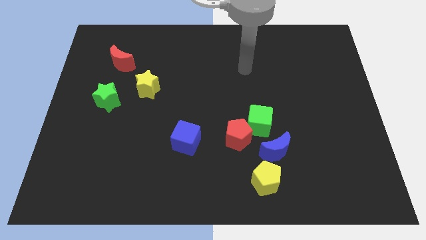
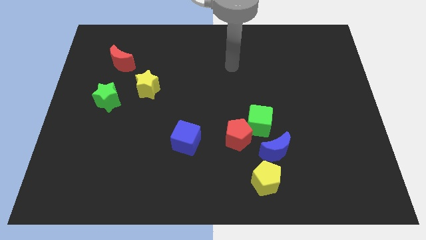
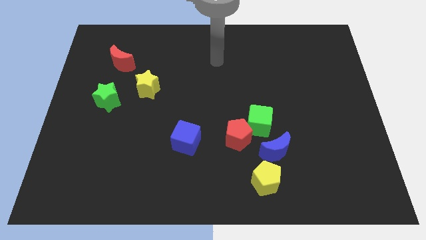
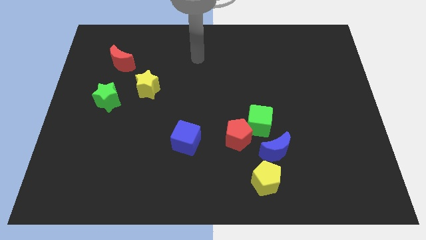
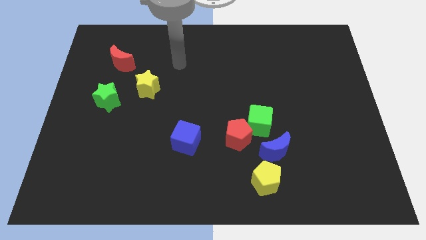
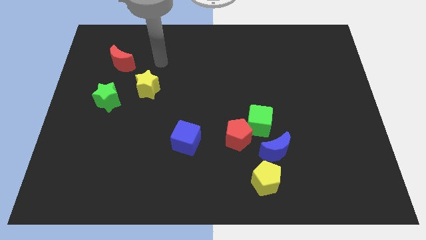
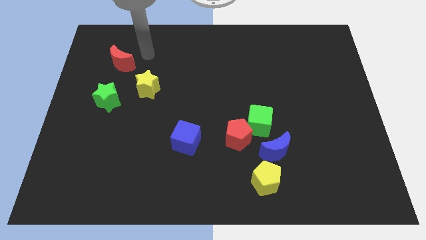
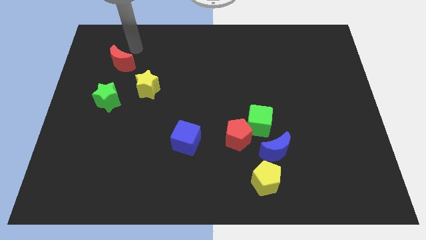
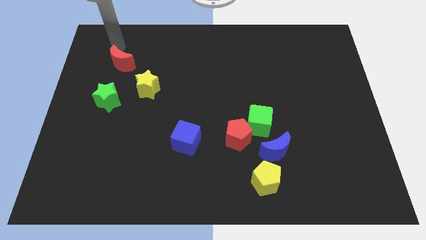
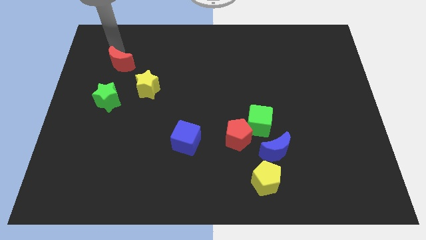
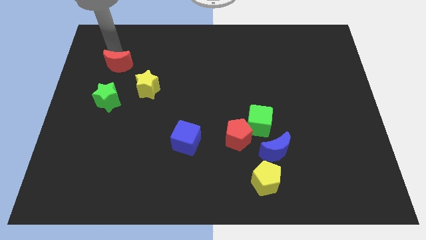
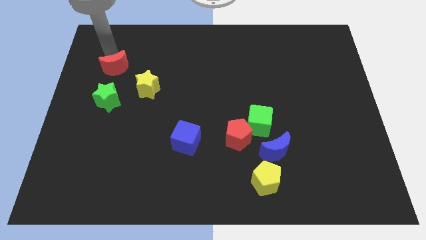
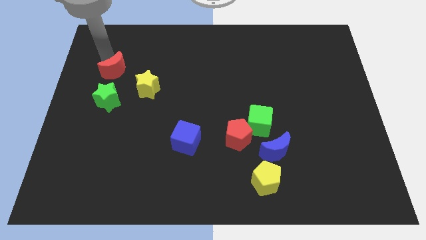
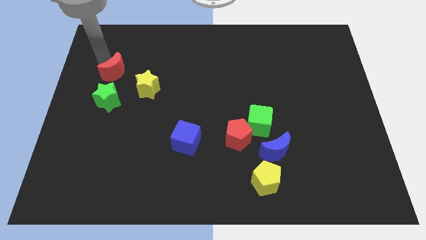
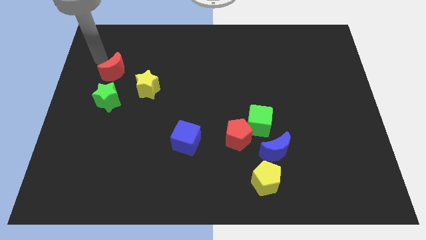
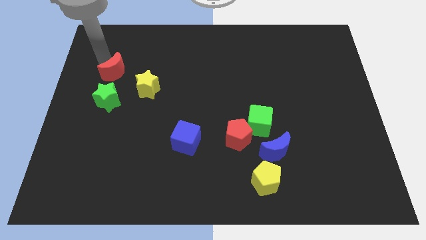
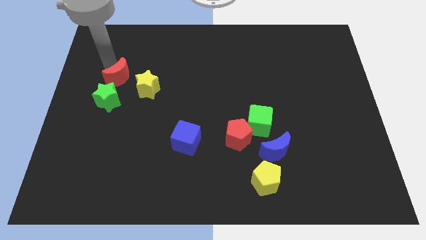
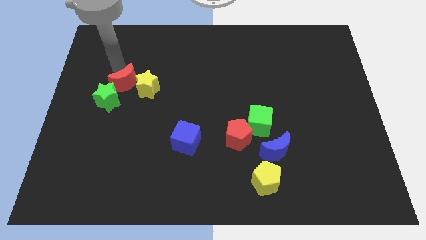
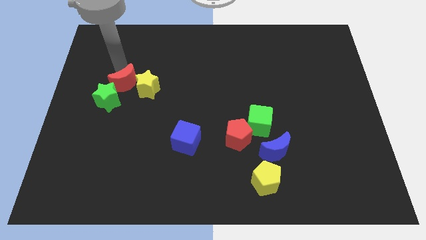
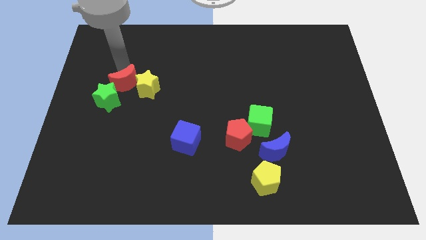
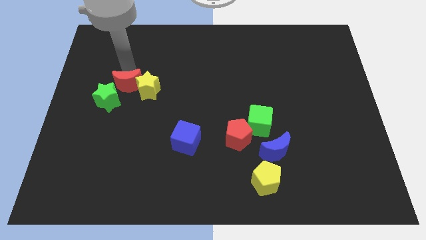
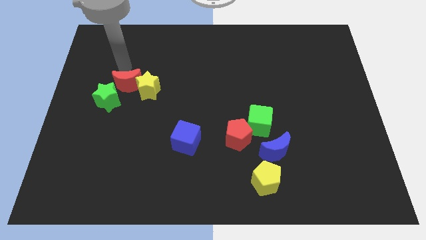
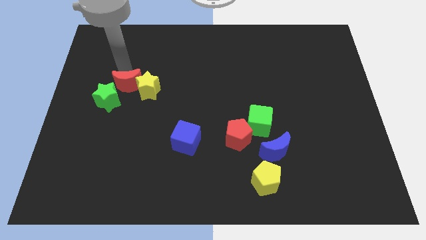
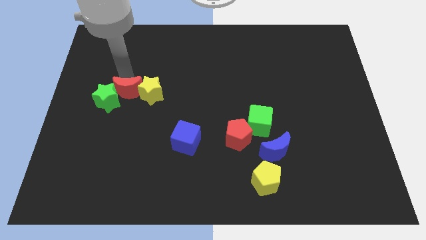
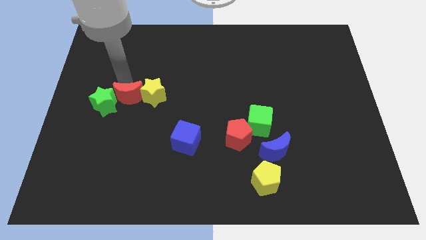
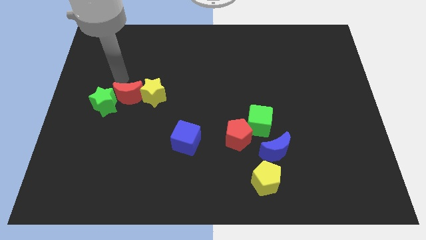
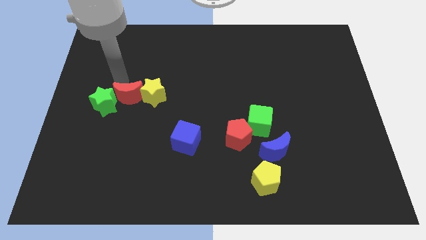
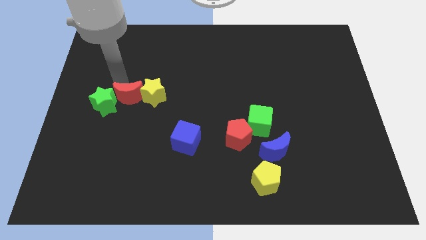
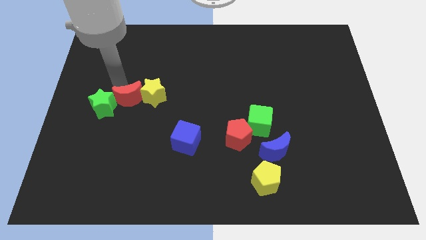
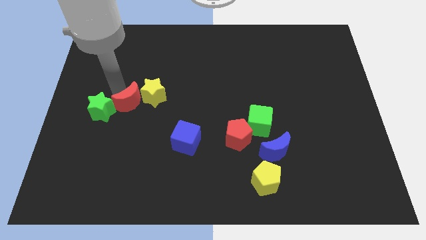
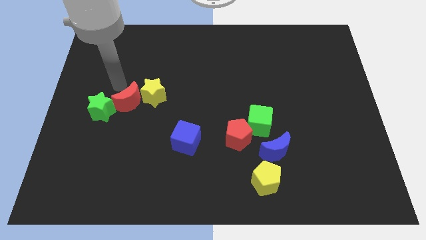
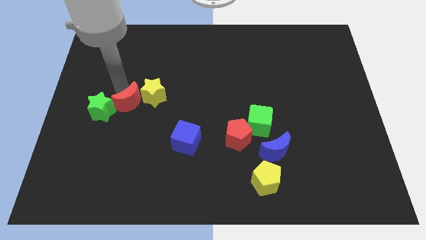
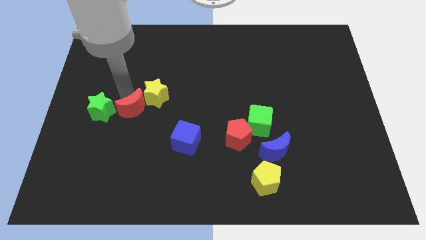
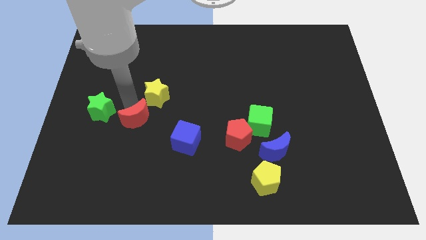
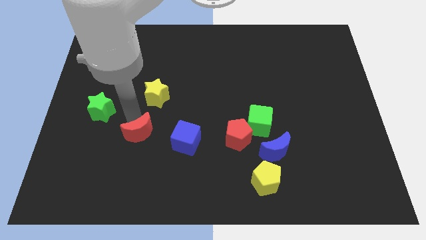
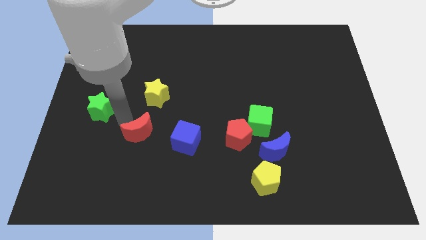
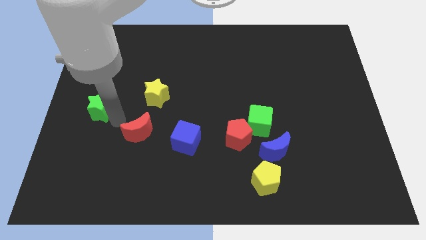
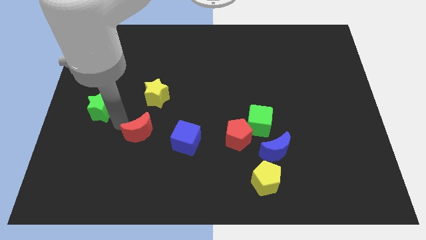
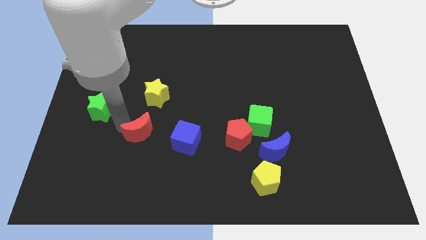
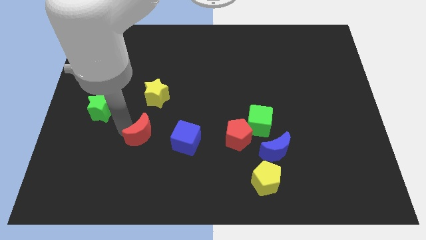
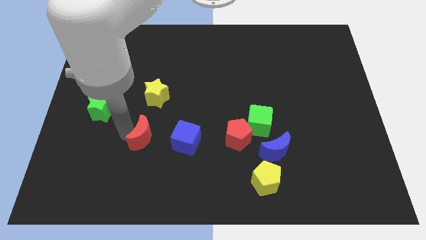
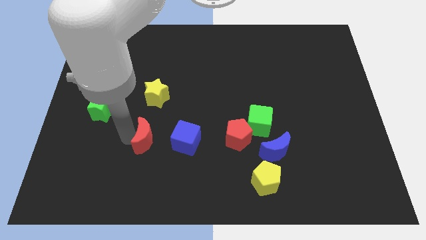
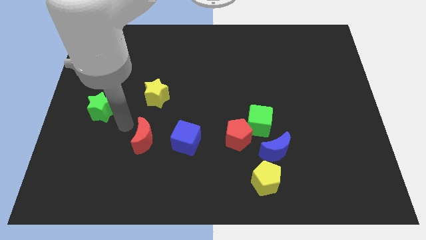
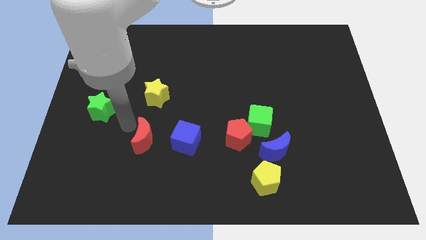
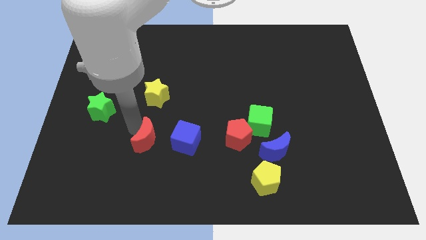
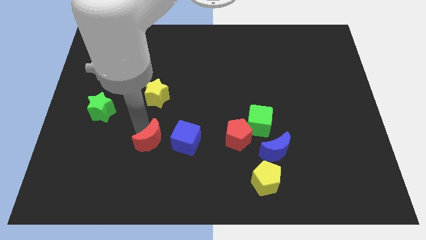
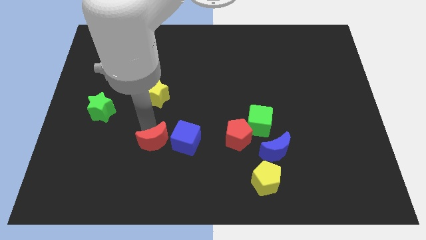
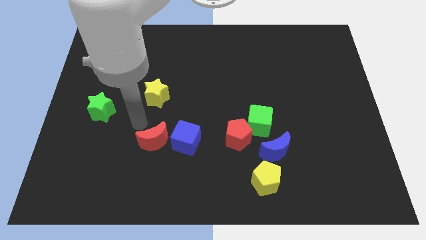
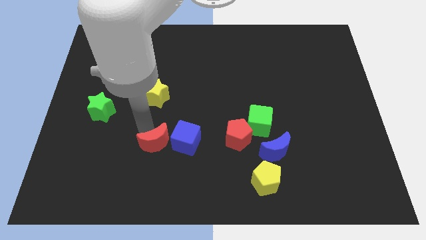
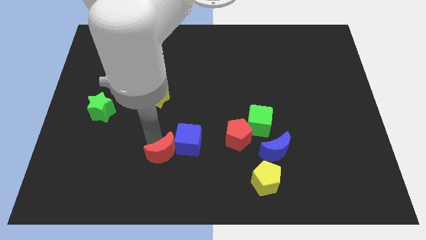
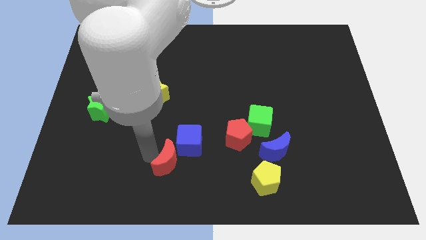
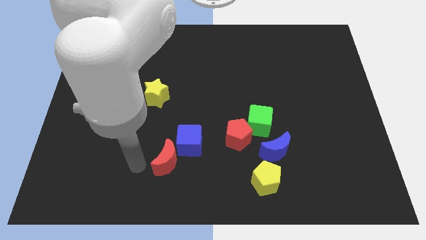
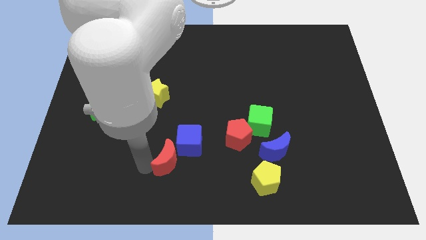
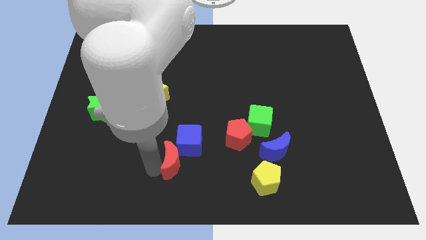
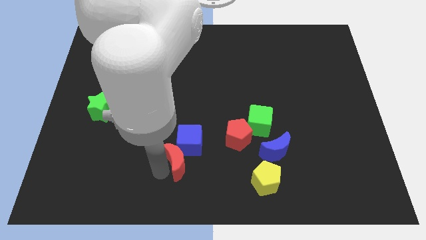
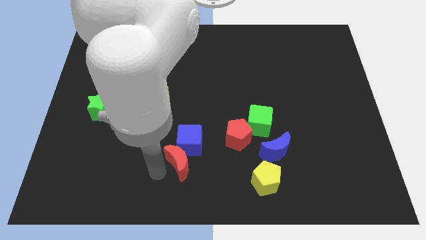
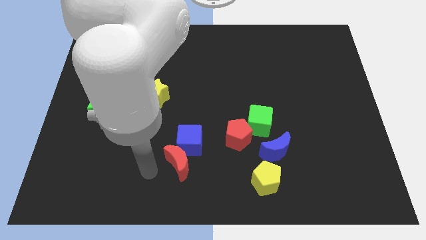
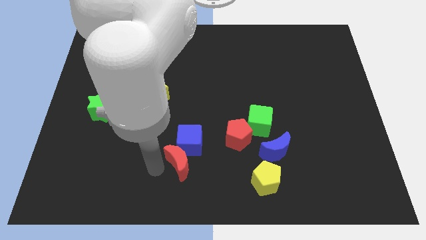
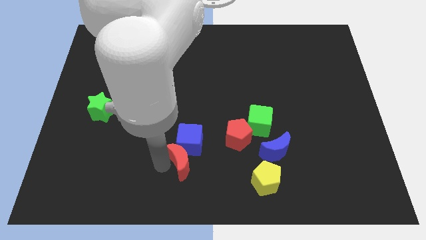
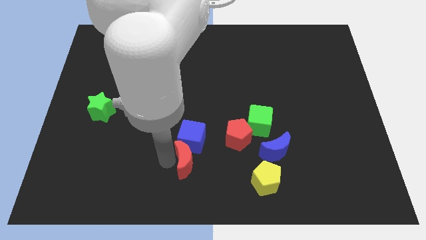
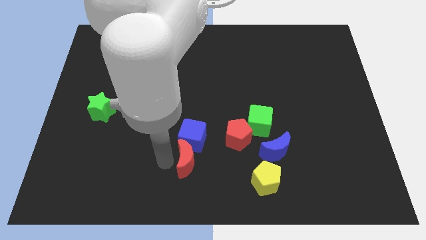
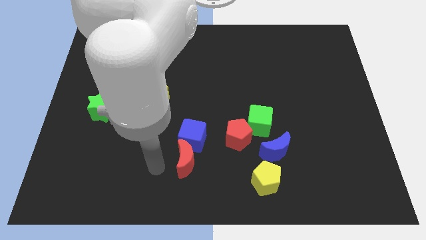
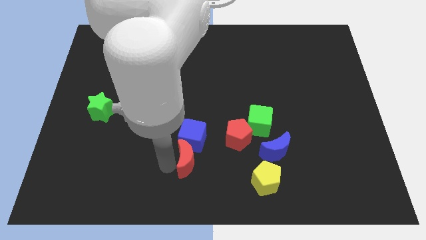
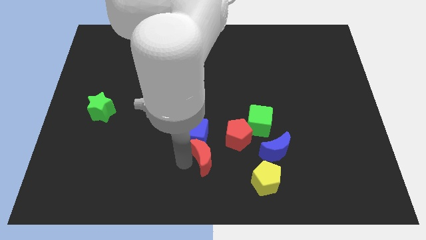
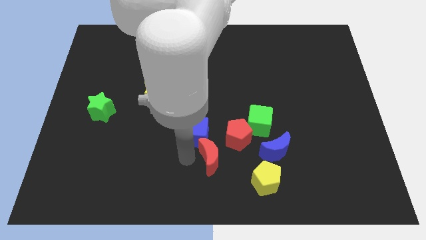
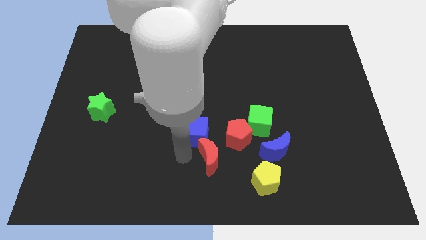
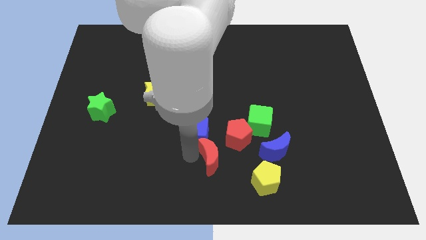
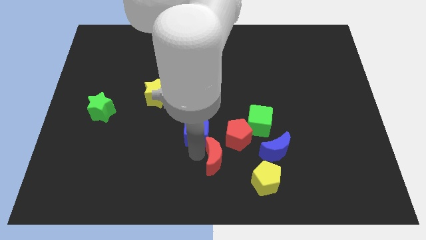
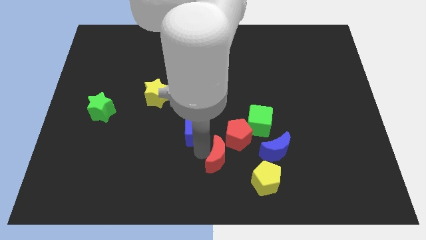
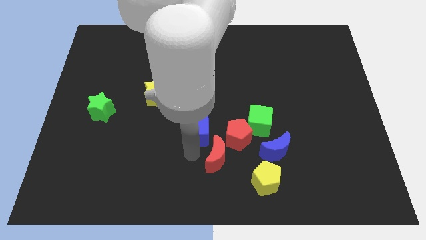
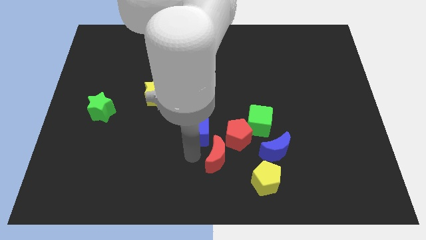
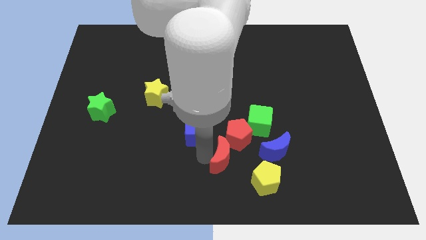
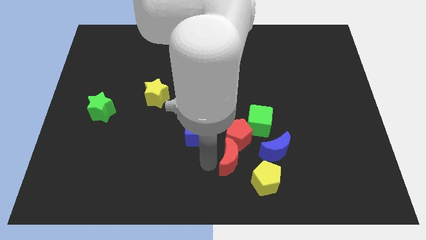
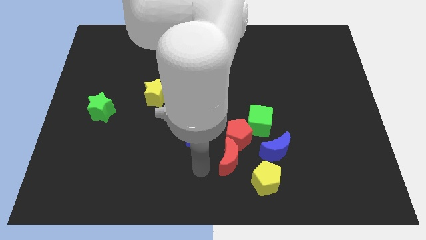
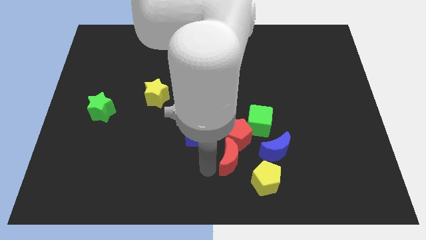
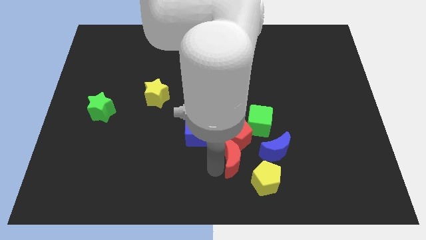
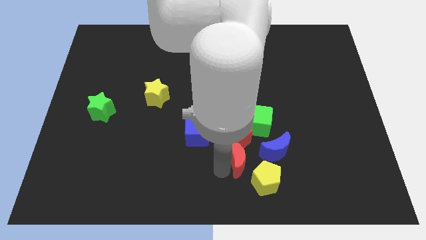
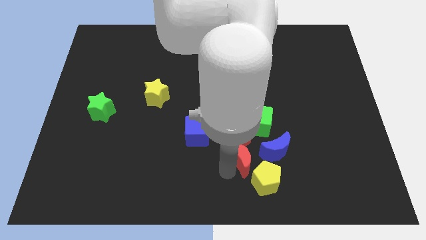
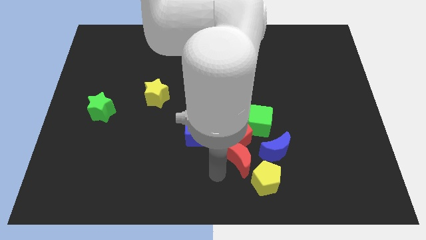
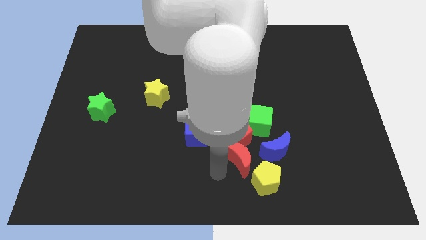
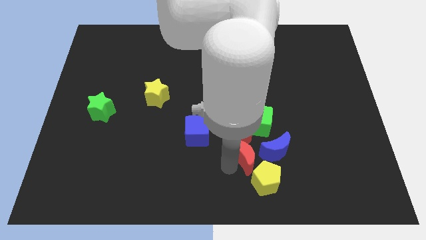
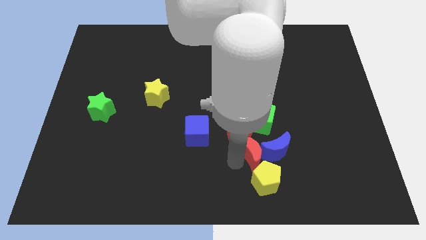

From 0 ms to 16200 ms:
push the red moon next to the blue moon
